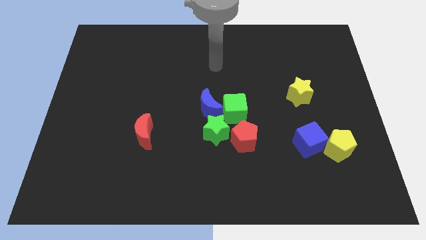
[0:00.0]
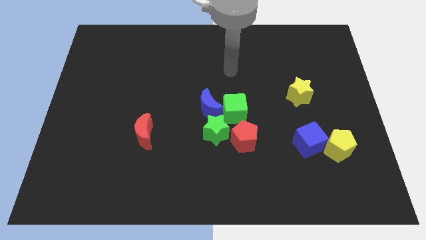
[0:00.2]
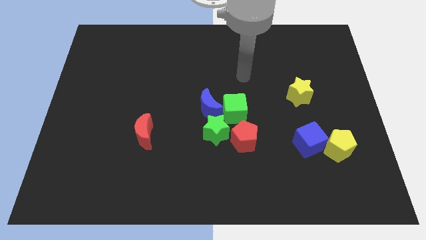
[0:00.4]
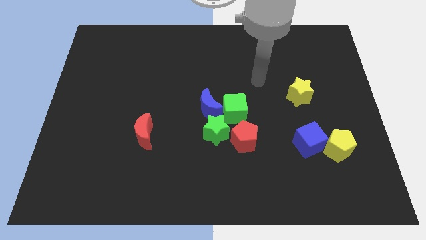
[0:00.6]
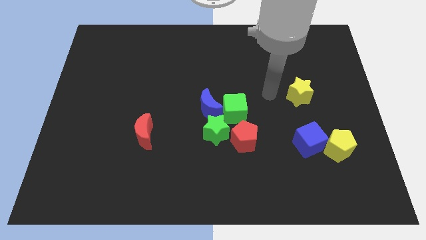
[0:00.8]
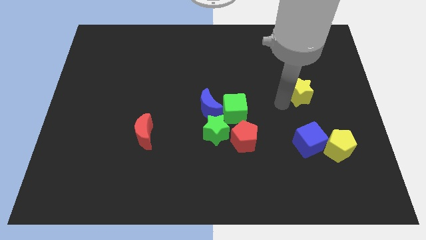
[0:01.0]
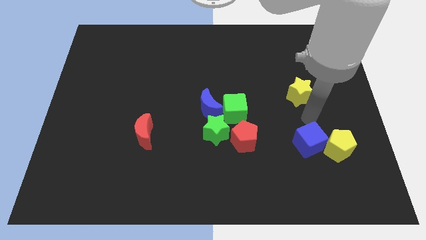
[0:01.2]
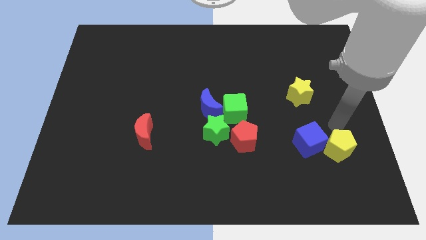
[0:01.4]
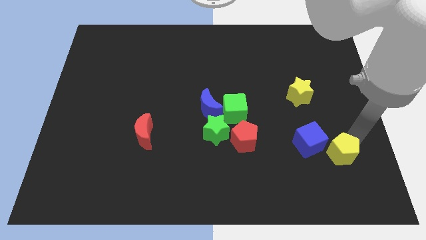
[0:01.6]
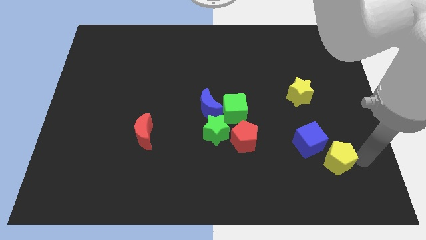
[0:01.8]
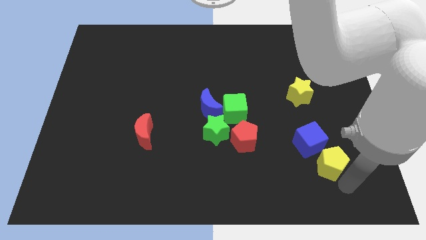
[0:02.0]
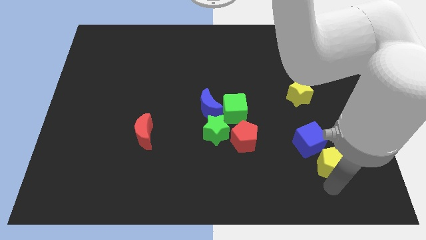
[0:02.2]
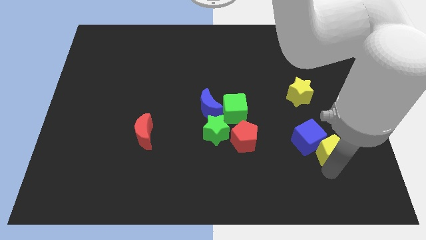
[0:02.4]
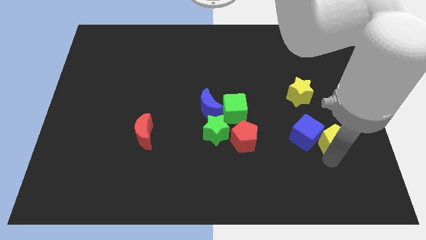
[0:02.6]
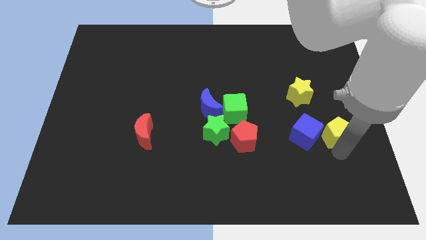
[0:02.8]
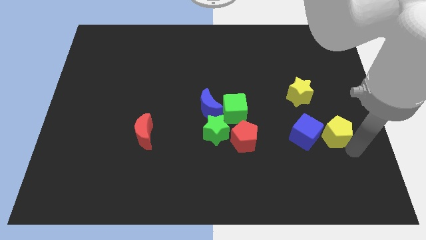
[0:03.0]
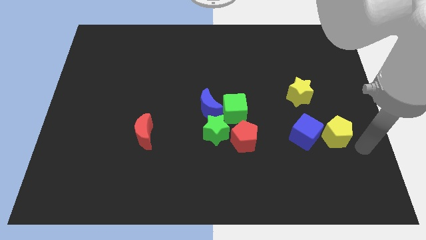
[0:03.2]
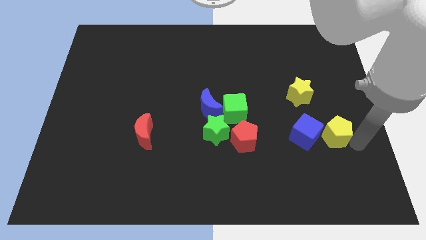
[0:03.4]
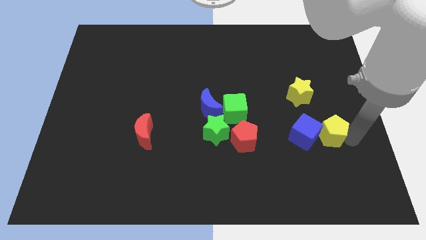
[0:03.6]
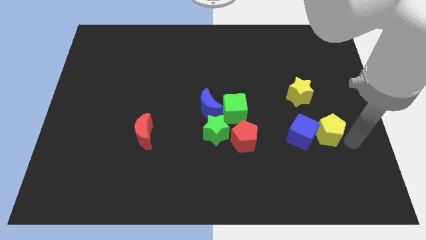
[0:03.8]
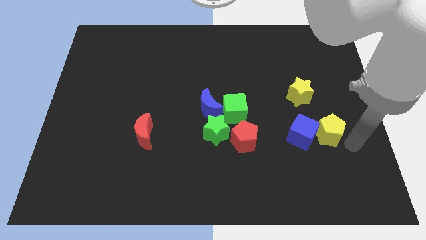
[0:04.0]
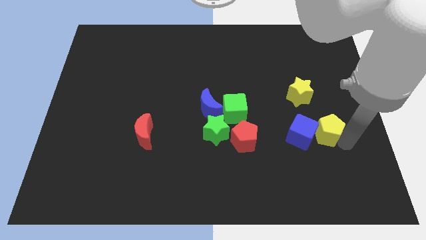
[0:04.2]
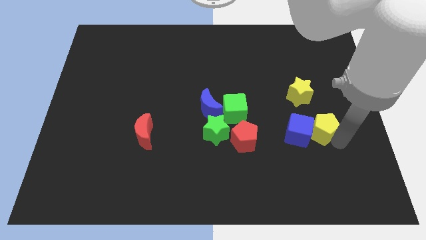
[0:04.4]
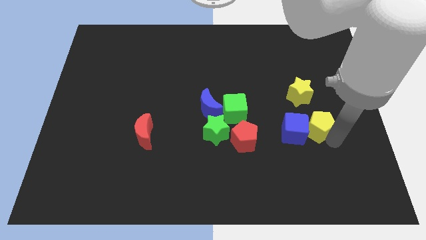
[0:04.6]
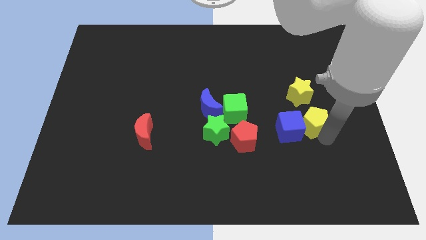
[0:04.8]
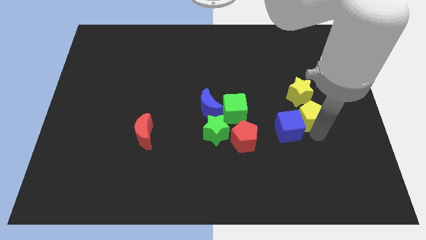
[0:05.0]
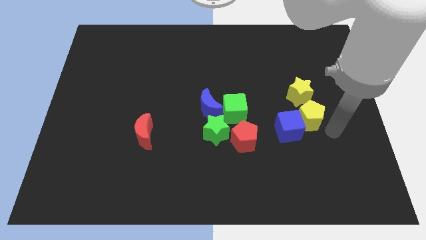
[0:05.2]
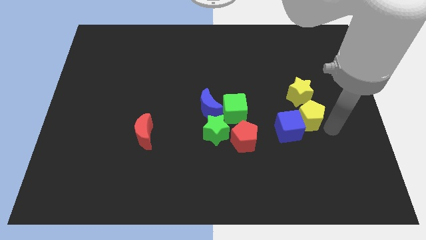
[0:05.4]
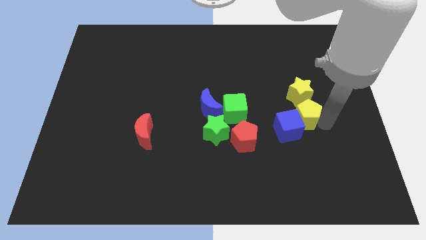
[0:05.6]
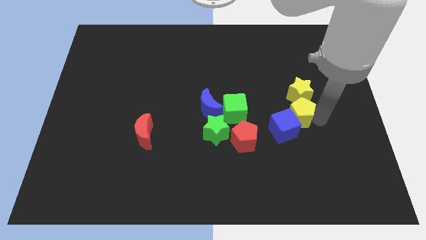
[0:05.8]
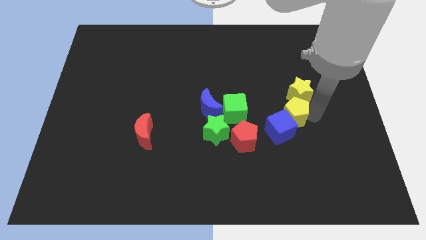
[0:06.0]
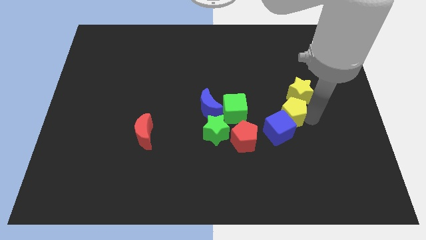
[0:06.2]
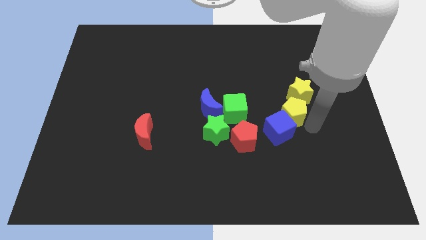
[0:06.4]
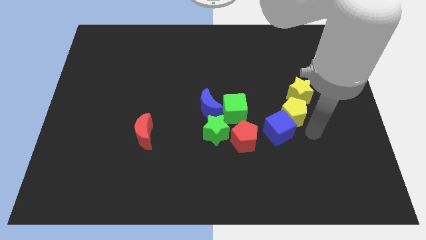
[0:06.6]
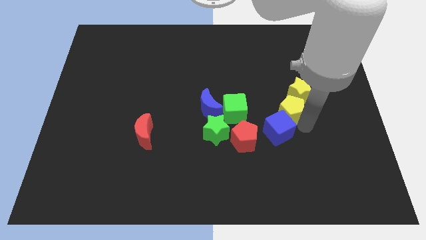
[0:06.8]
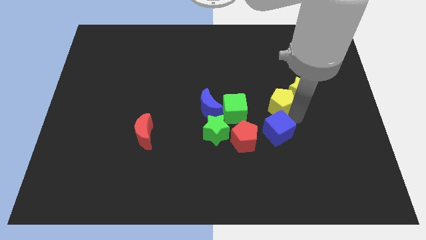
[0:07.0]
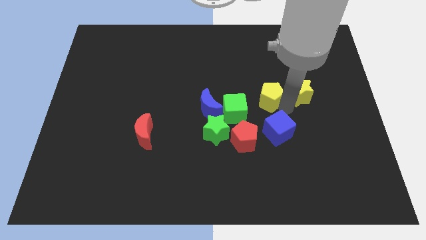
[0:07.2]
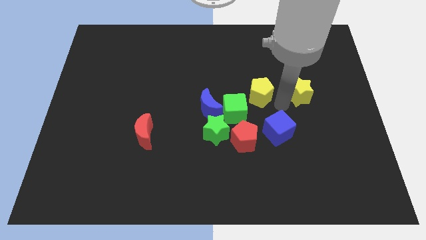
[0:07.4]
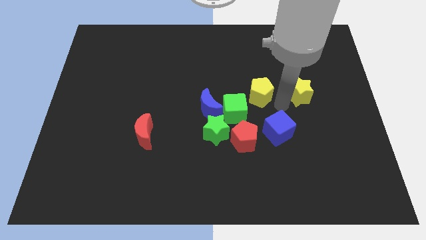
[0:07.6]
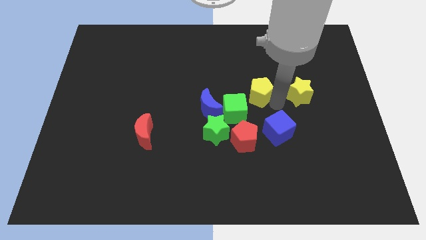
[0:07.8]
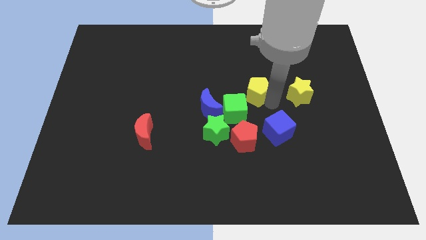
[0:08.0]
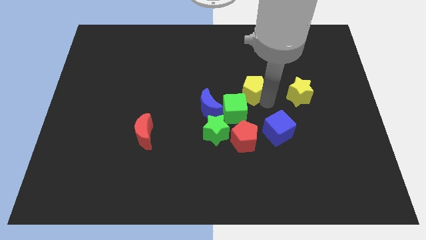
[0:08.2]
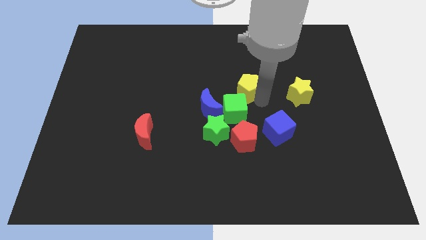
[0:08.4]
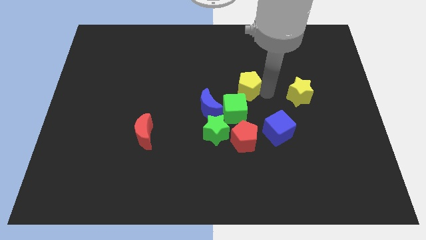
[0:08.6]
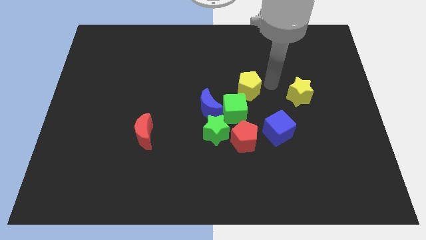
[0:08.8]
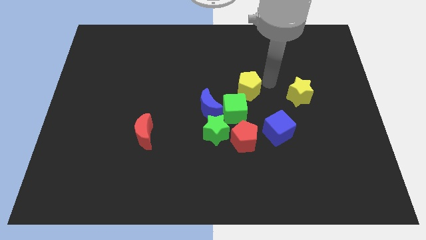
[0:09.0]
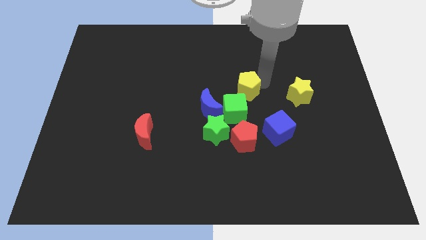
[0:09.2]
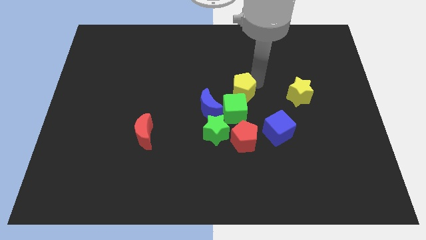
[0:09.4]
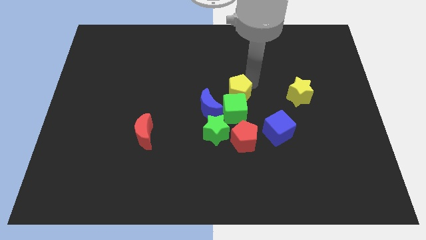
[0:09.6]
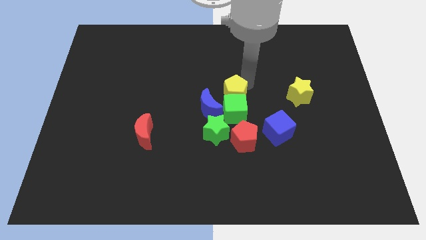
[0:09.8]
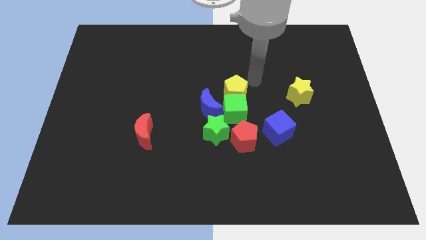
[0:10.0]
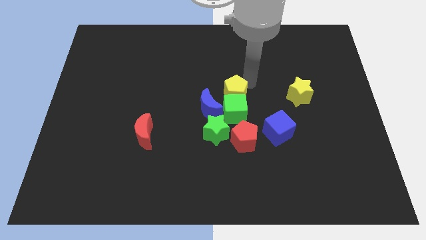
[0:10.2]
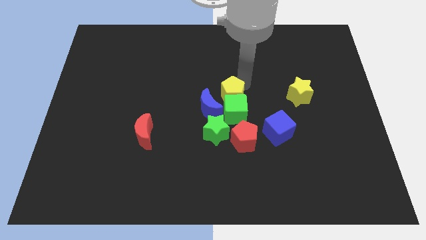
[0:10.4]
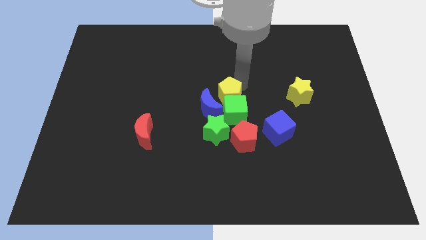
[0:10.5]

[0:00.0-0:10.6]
put the yellow pentagon towards the blue moon

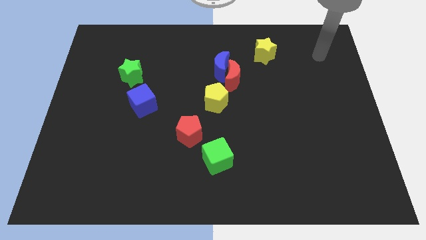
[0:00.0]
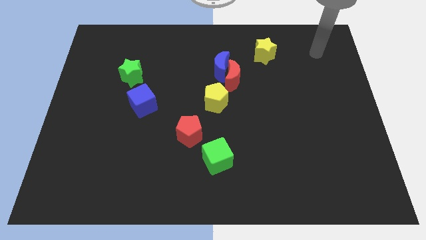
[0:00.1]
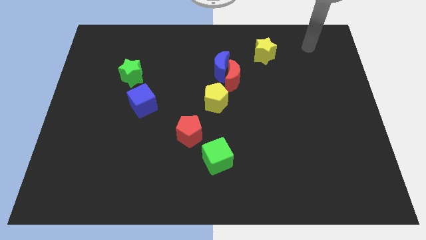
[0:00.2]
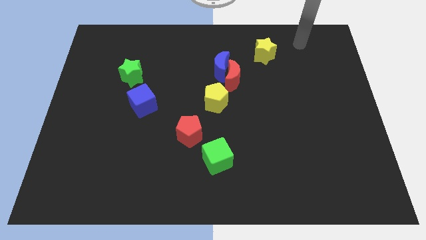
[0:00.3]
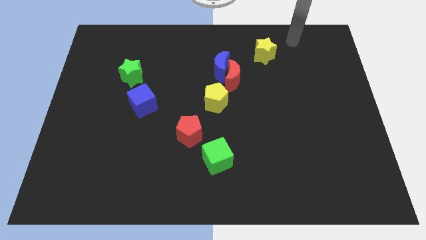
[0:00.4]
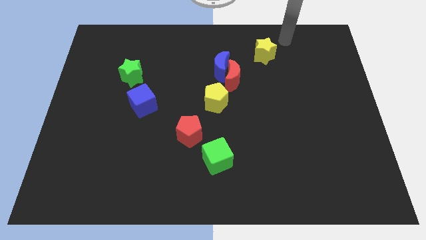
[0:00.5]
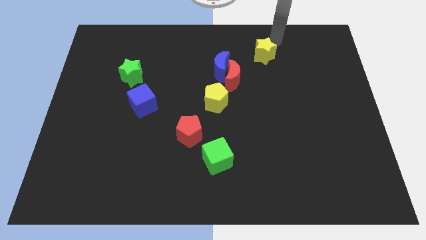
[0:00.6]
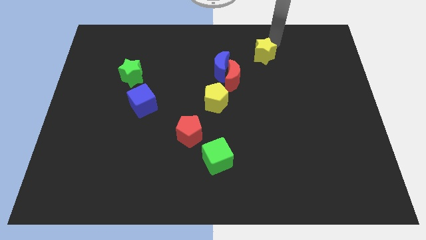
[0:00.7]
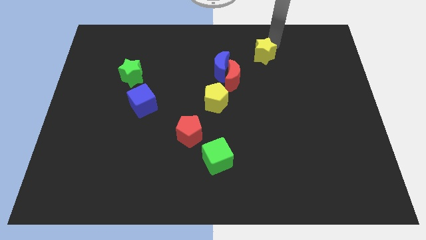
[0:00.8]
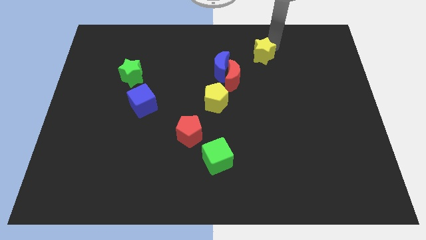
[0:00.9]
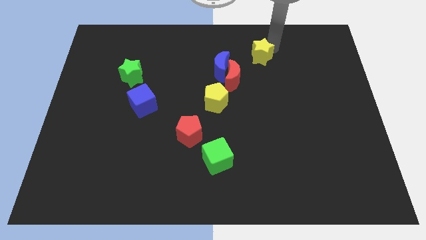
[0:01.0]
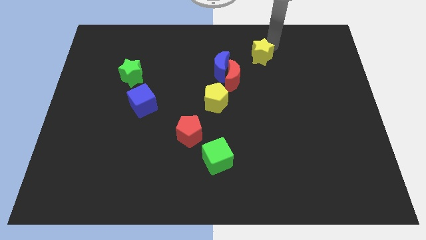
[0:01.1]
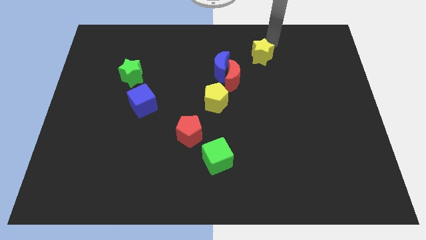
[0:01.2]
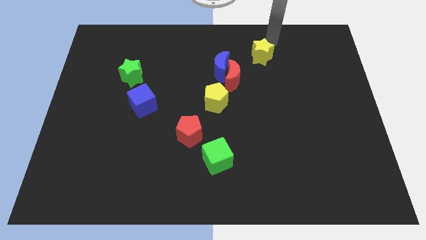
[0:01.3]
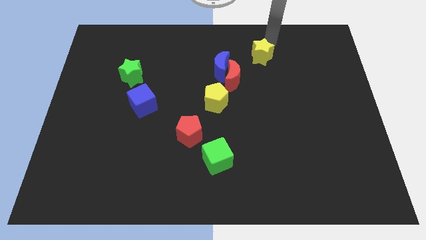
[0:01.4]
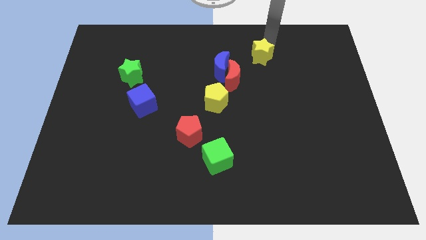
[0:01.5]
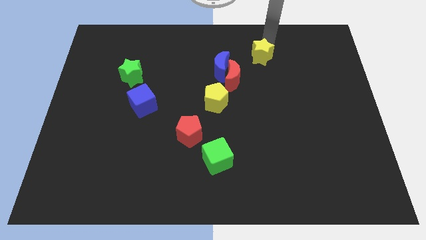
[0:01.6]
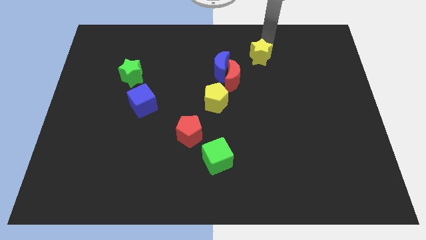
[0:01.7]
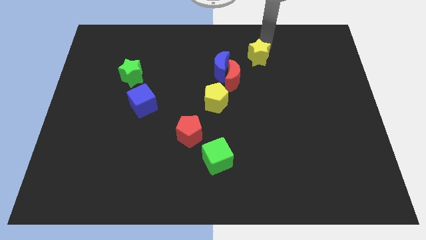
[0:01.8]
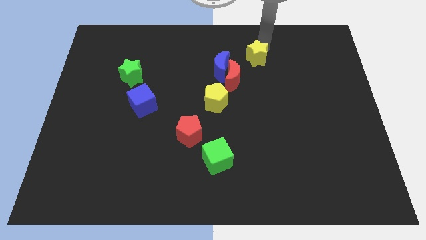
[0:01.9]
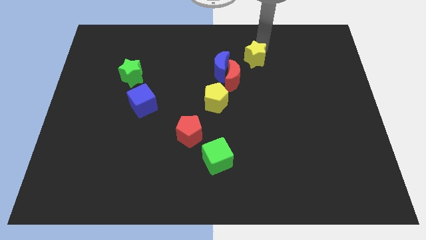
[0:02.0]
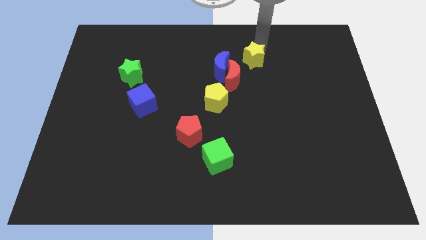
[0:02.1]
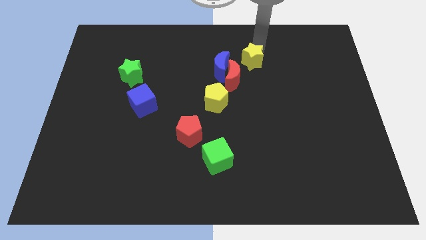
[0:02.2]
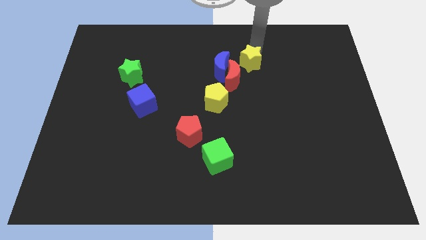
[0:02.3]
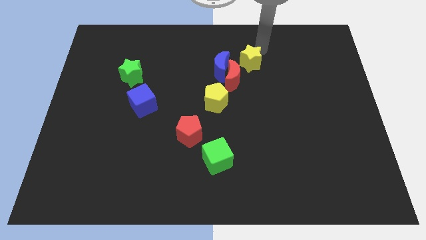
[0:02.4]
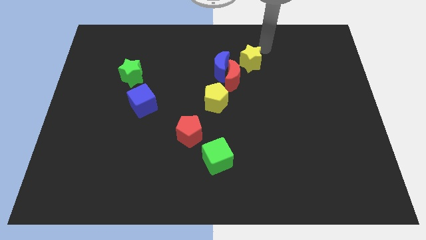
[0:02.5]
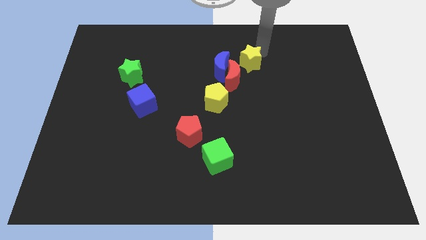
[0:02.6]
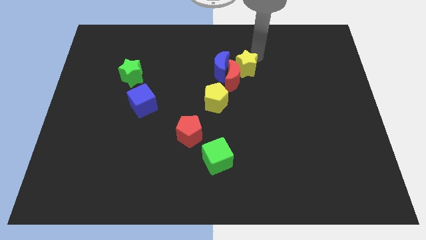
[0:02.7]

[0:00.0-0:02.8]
slide the yellow star towards the red moon
